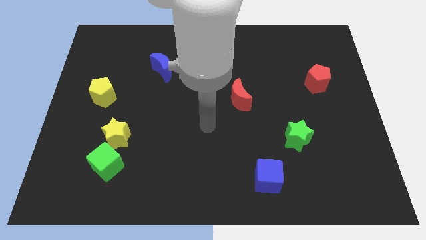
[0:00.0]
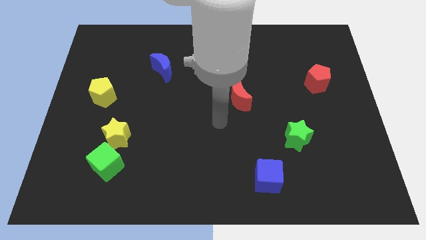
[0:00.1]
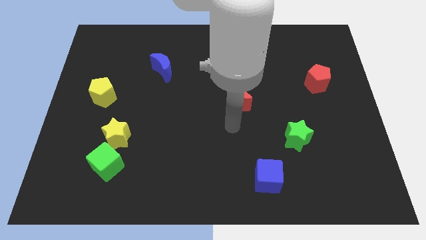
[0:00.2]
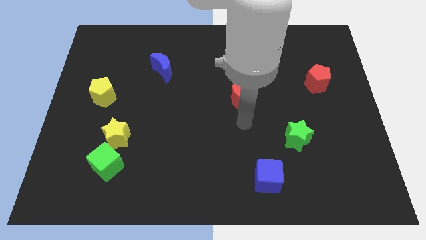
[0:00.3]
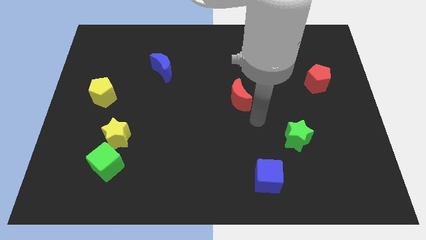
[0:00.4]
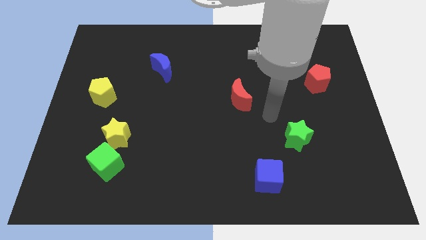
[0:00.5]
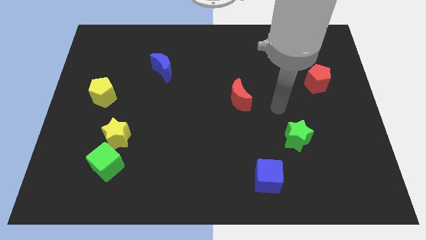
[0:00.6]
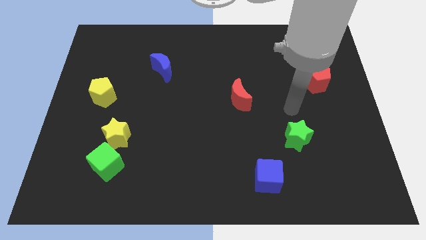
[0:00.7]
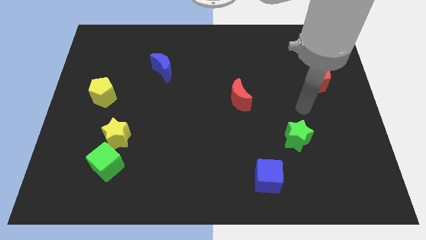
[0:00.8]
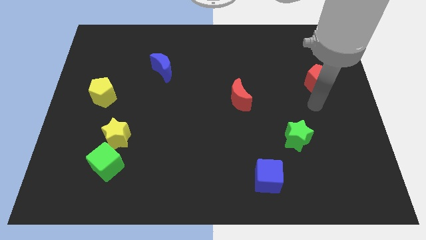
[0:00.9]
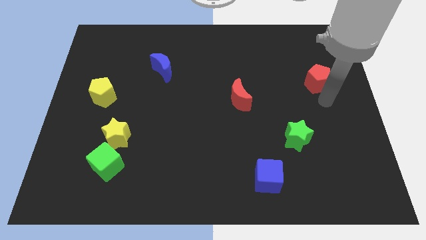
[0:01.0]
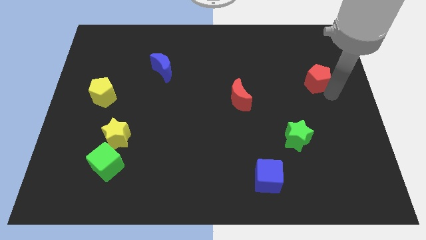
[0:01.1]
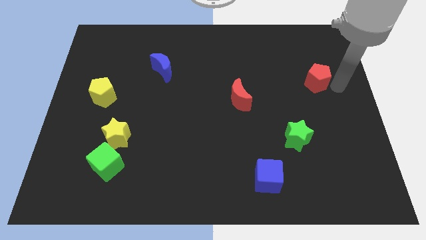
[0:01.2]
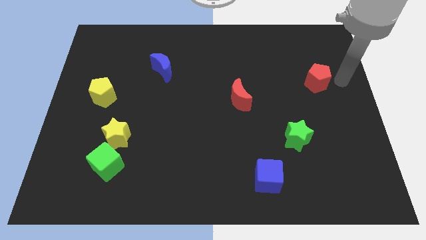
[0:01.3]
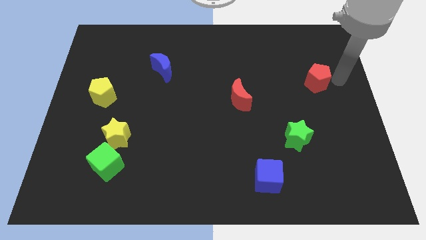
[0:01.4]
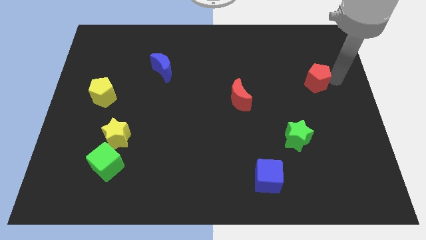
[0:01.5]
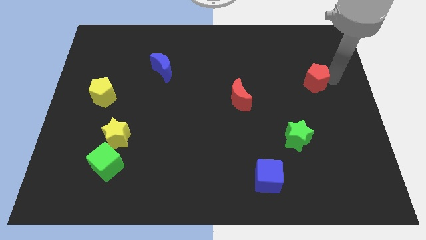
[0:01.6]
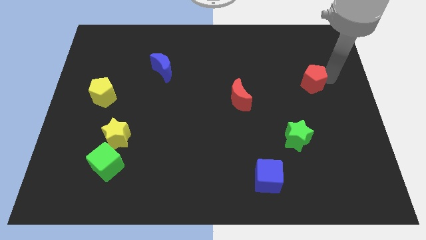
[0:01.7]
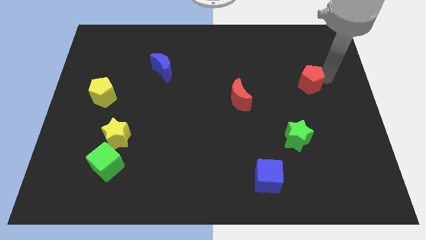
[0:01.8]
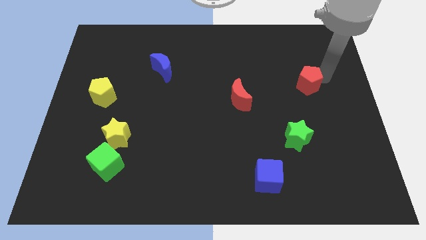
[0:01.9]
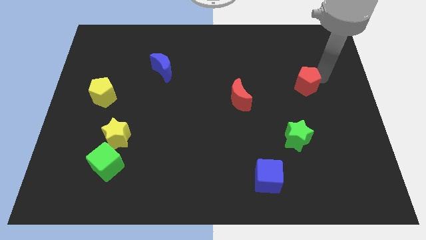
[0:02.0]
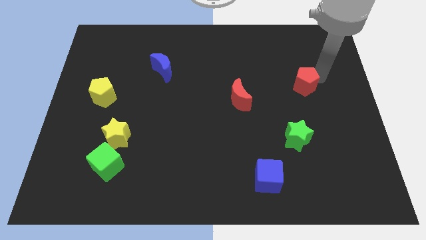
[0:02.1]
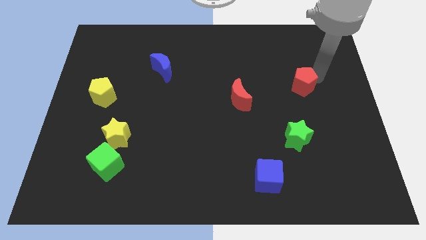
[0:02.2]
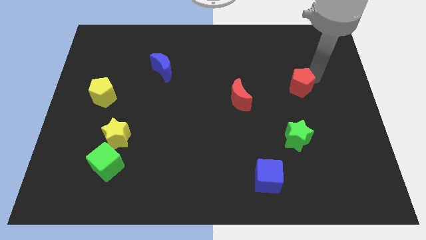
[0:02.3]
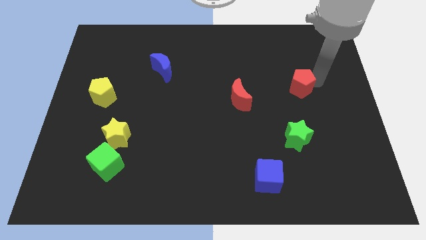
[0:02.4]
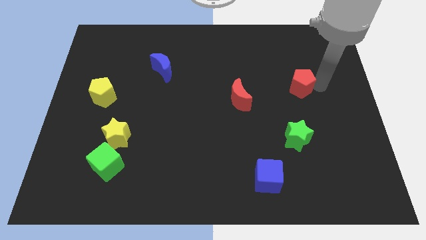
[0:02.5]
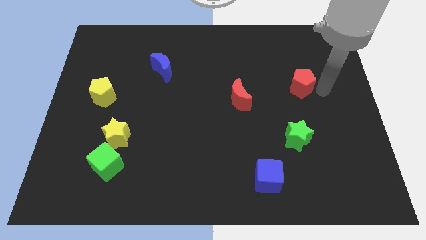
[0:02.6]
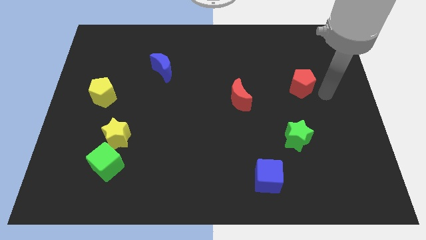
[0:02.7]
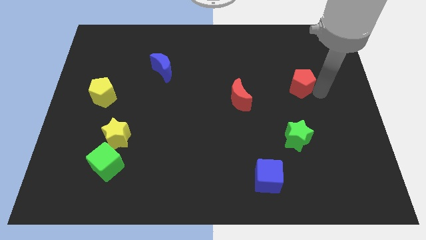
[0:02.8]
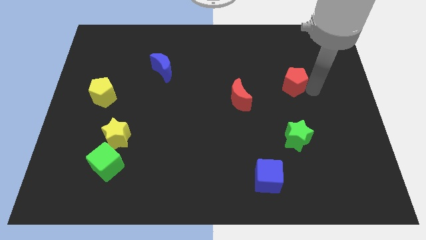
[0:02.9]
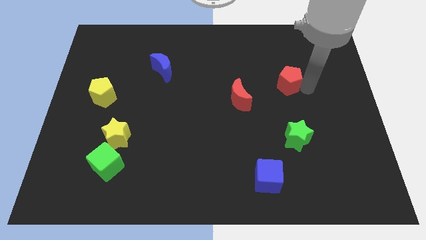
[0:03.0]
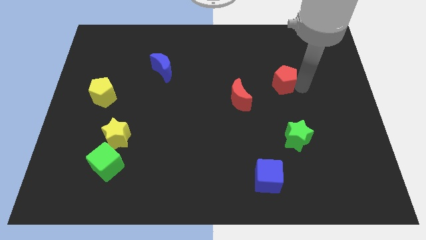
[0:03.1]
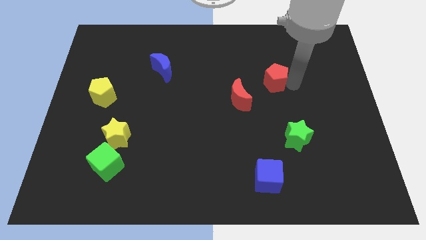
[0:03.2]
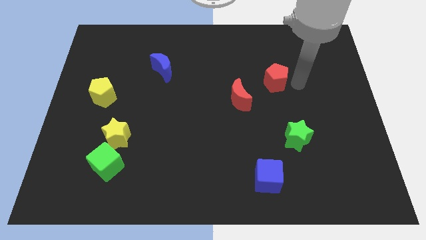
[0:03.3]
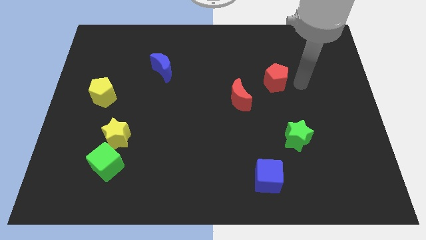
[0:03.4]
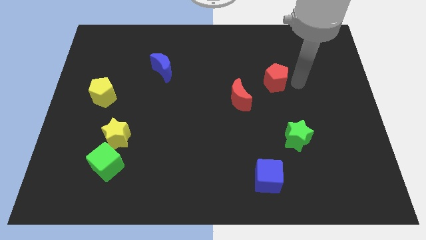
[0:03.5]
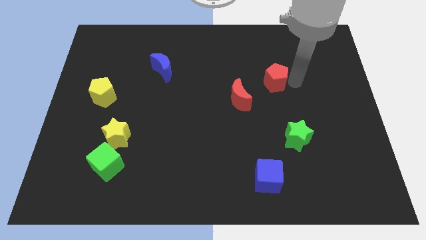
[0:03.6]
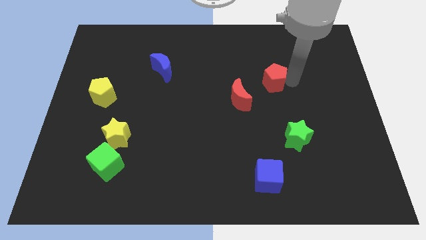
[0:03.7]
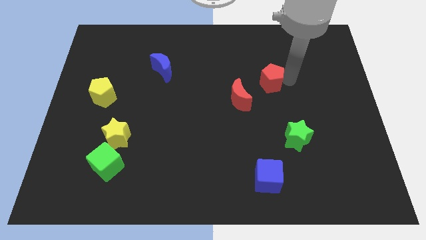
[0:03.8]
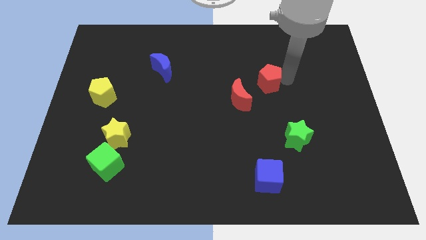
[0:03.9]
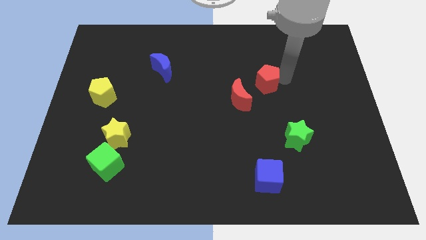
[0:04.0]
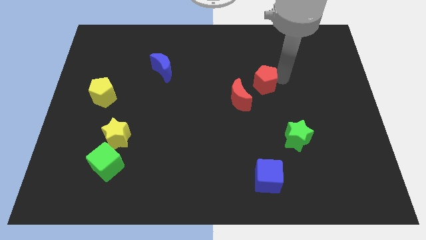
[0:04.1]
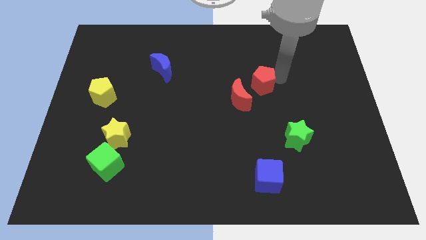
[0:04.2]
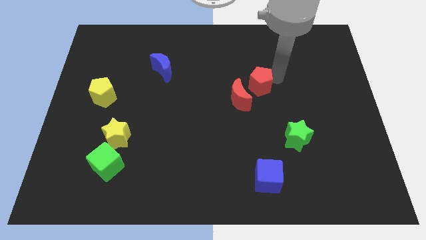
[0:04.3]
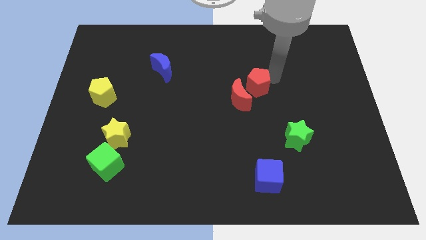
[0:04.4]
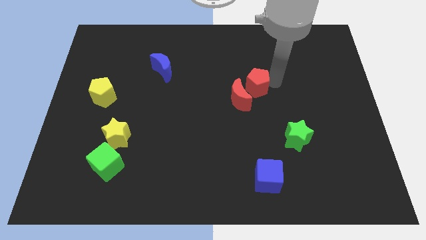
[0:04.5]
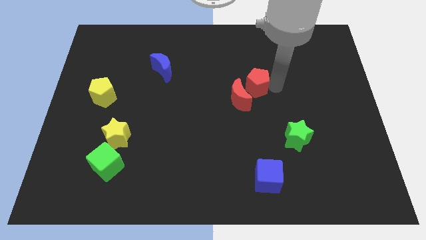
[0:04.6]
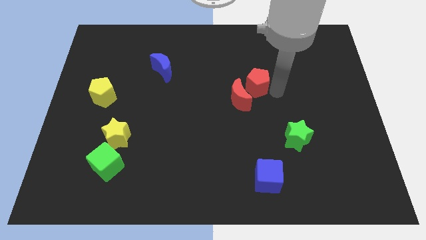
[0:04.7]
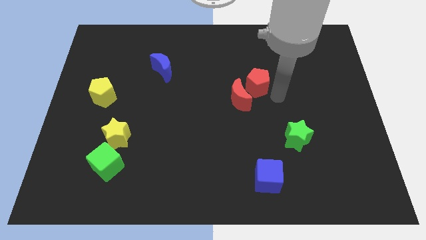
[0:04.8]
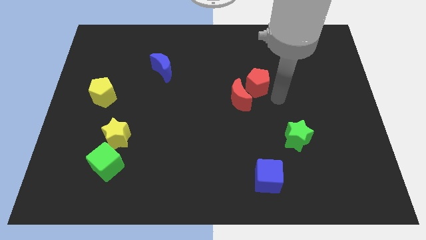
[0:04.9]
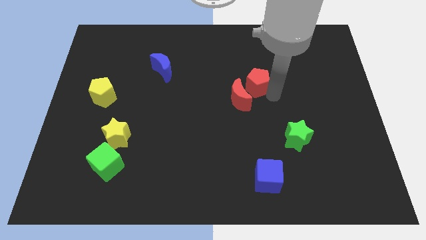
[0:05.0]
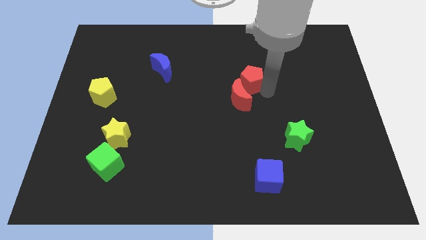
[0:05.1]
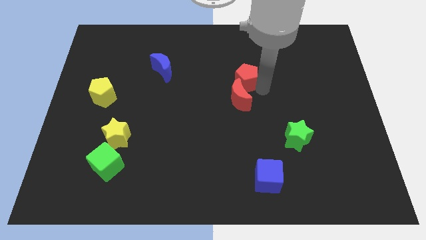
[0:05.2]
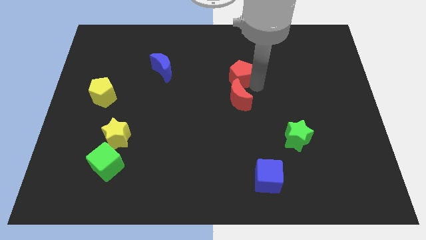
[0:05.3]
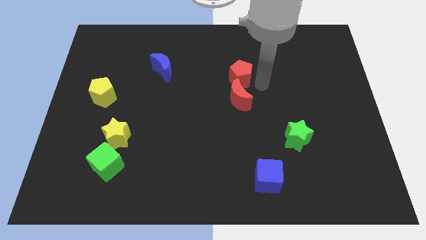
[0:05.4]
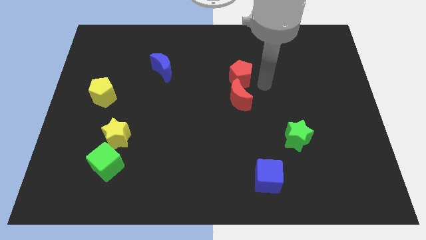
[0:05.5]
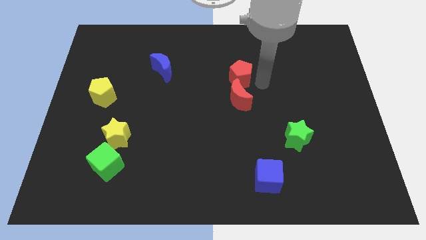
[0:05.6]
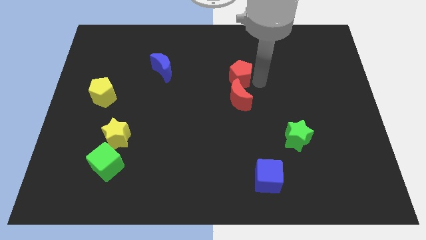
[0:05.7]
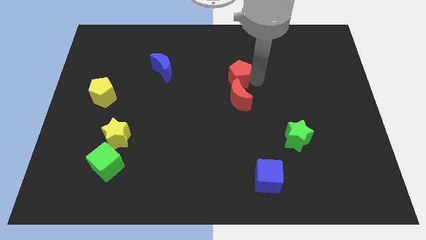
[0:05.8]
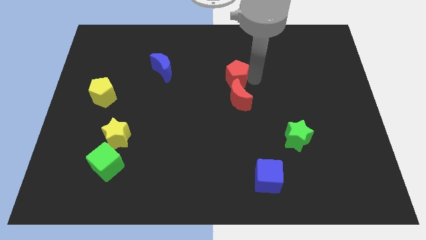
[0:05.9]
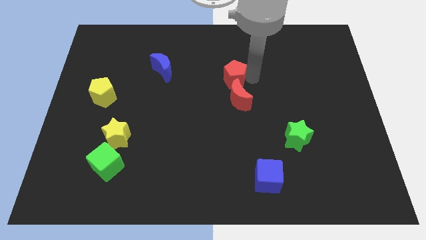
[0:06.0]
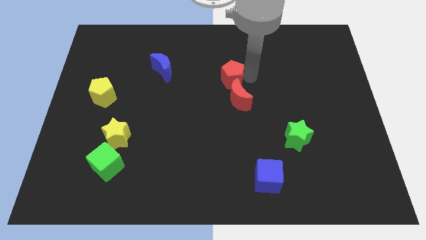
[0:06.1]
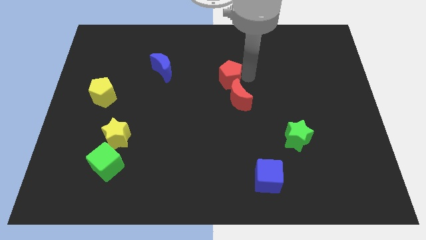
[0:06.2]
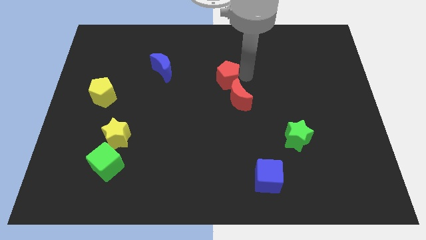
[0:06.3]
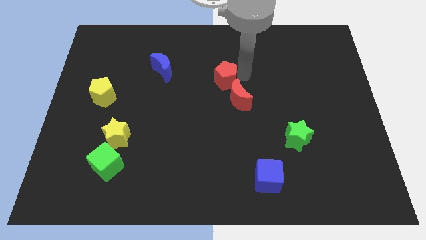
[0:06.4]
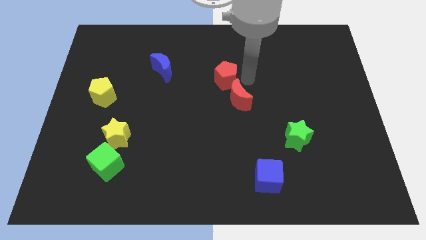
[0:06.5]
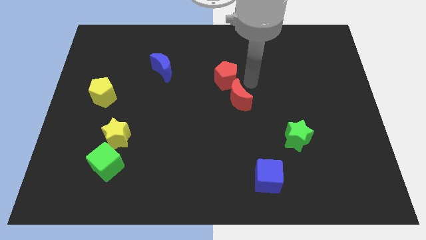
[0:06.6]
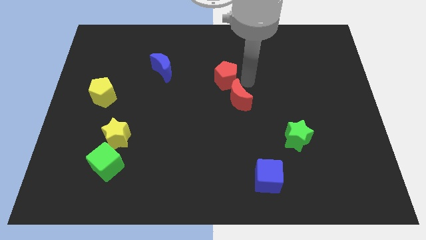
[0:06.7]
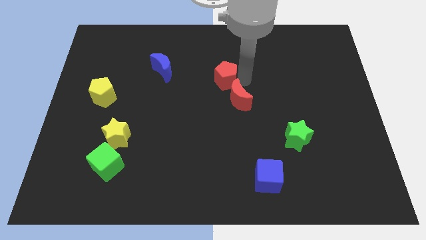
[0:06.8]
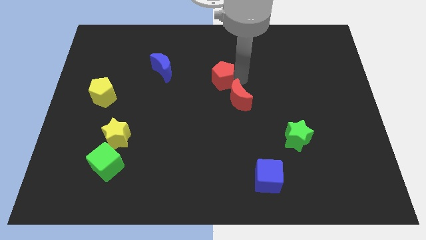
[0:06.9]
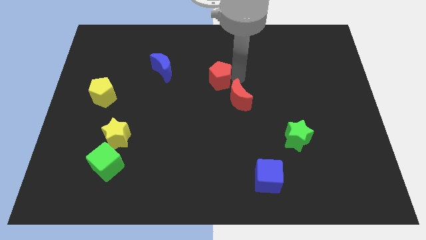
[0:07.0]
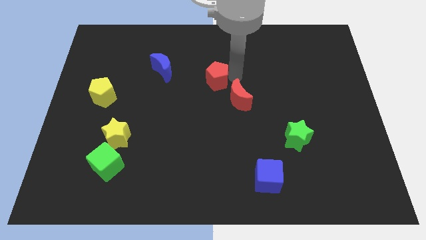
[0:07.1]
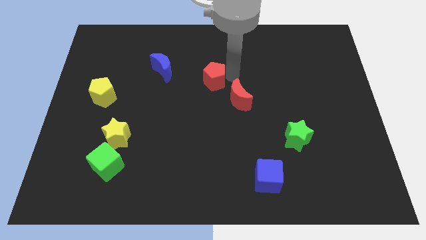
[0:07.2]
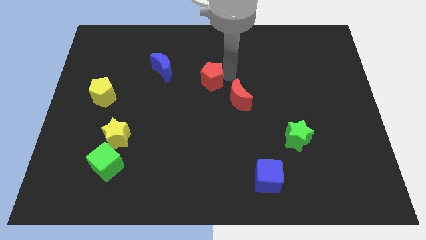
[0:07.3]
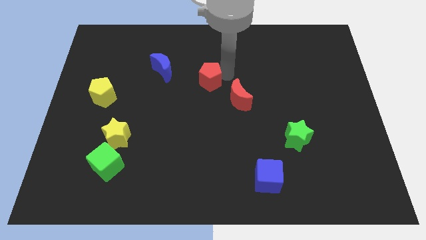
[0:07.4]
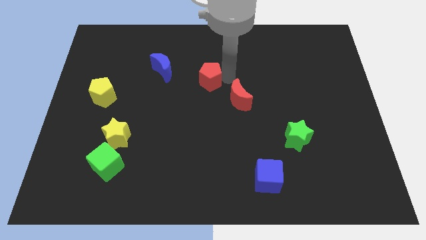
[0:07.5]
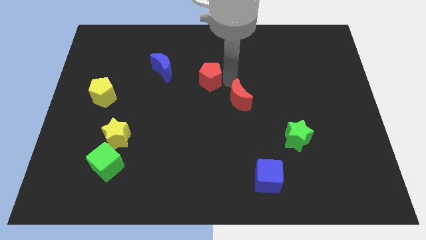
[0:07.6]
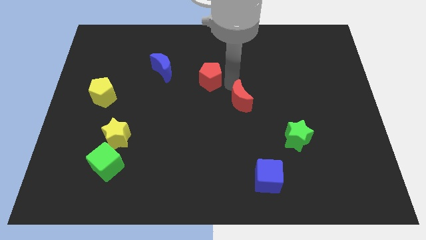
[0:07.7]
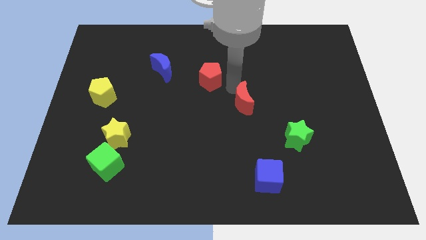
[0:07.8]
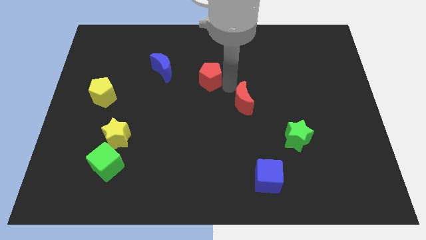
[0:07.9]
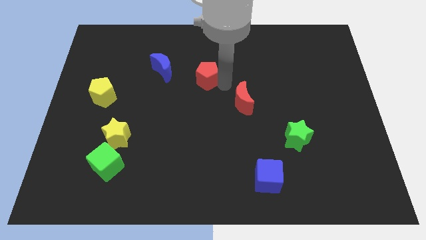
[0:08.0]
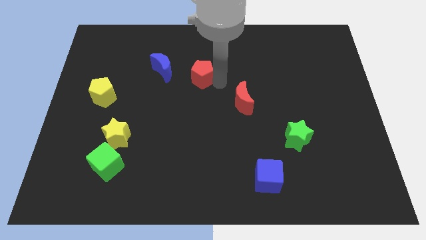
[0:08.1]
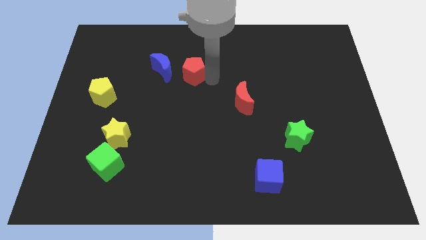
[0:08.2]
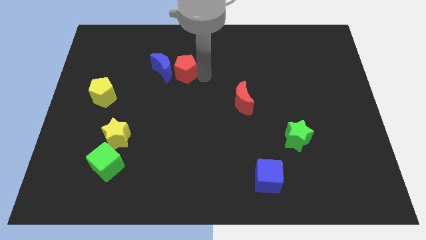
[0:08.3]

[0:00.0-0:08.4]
push the red pentagon next to the blue moon
